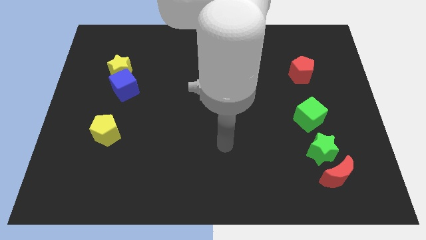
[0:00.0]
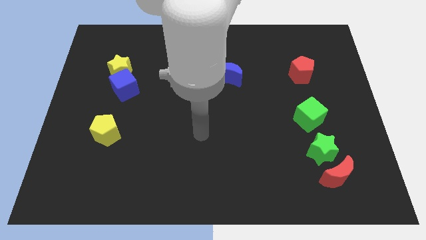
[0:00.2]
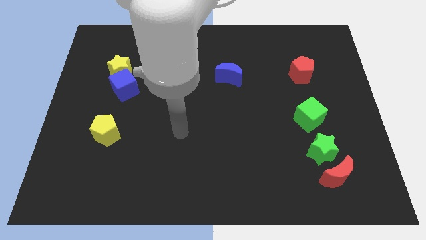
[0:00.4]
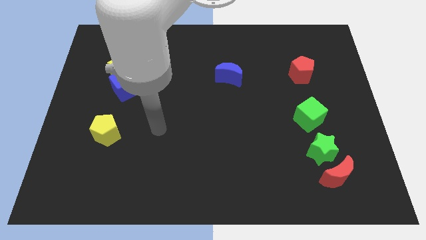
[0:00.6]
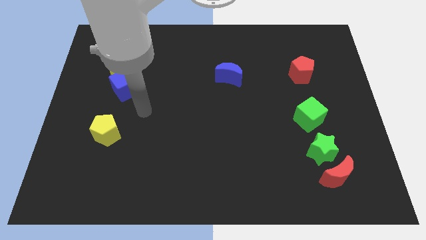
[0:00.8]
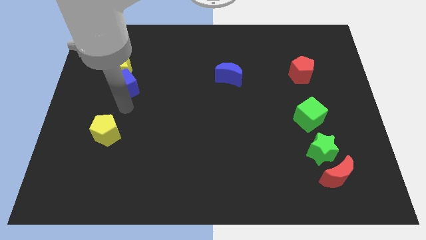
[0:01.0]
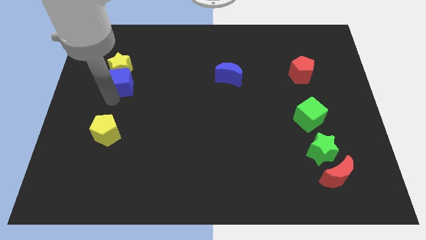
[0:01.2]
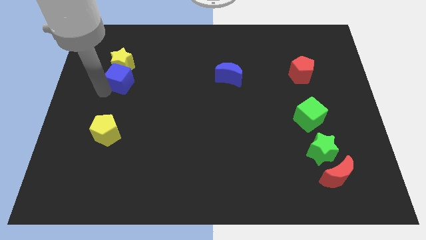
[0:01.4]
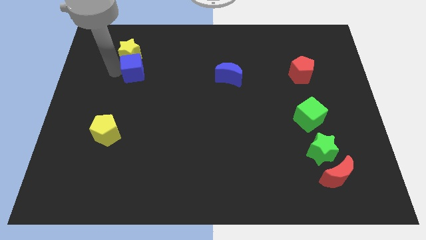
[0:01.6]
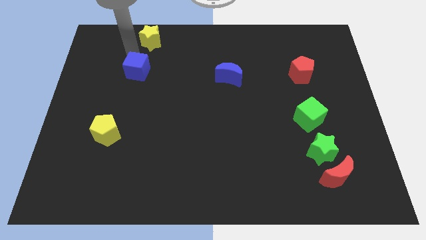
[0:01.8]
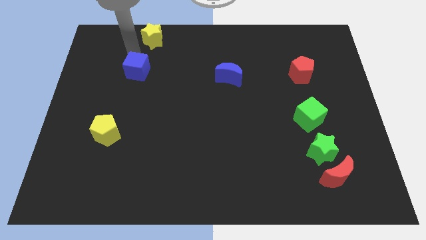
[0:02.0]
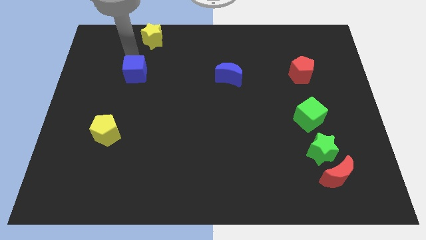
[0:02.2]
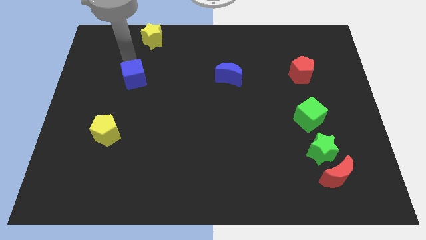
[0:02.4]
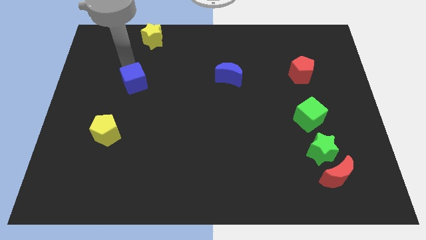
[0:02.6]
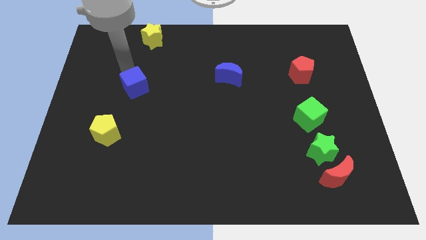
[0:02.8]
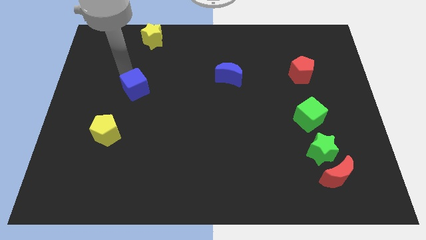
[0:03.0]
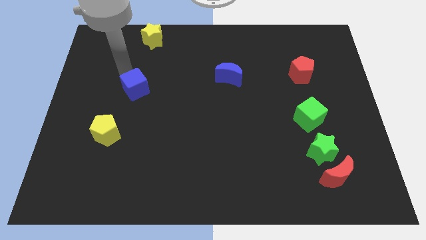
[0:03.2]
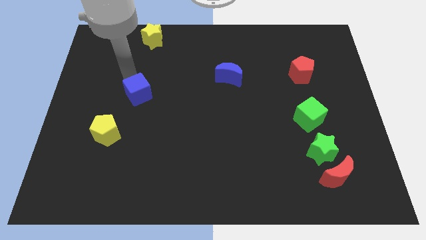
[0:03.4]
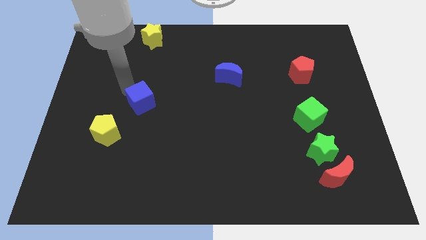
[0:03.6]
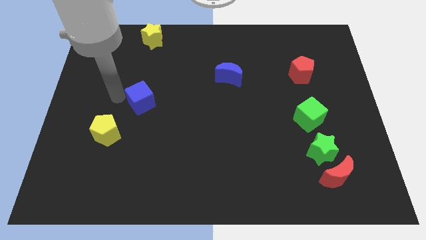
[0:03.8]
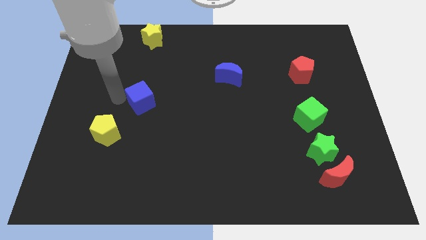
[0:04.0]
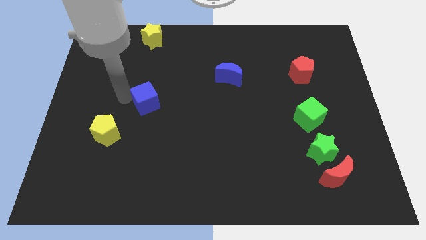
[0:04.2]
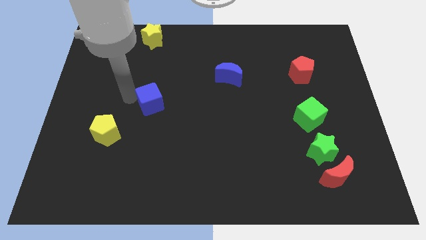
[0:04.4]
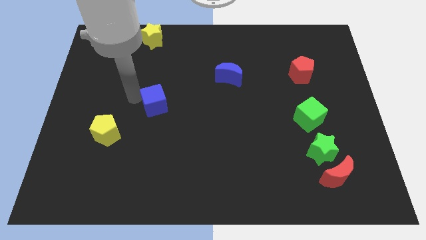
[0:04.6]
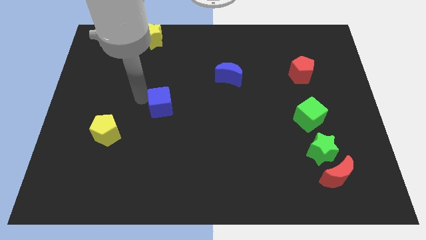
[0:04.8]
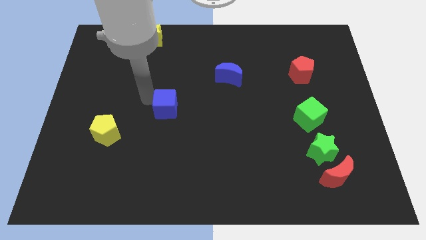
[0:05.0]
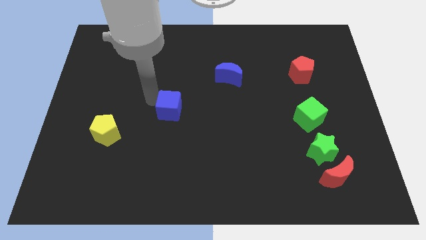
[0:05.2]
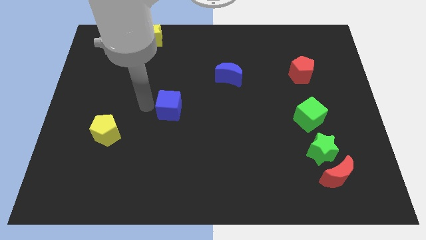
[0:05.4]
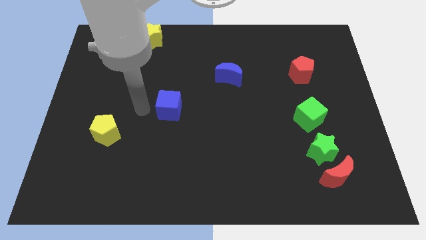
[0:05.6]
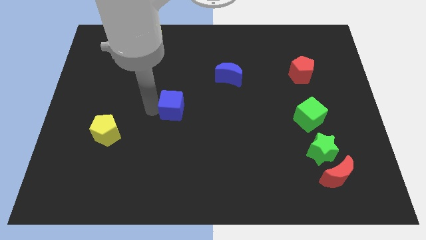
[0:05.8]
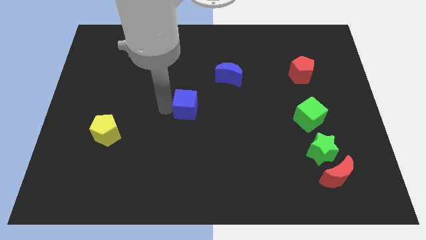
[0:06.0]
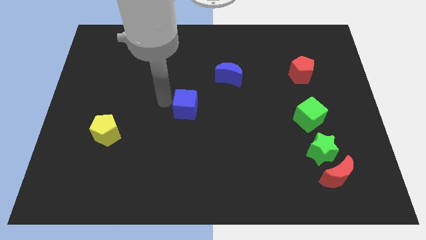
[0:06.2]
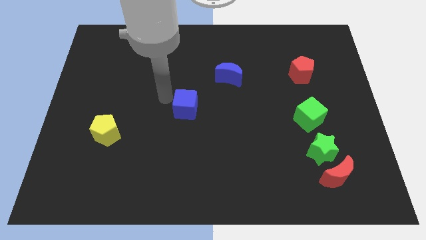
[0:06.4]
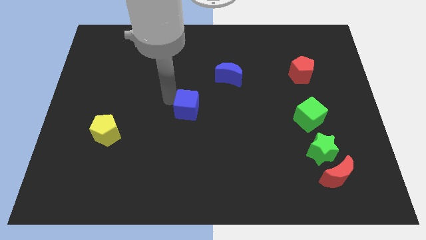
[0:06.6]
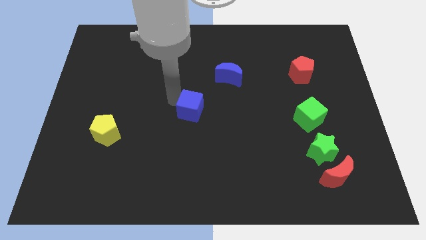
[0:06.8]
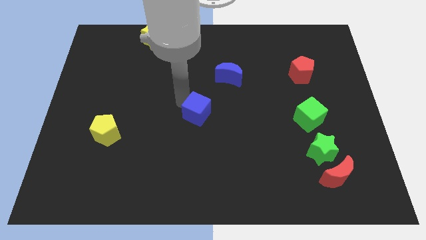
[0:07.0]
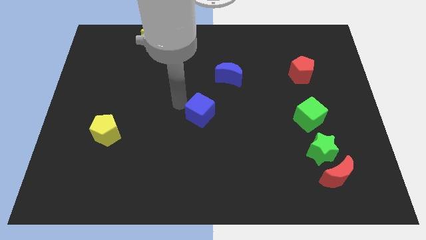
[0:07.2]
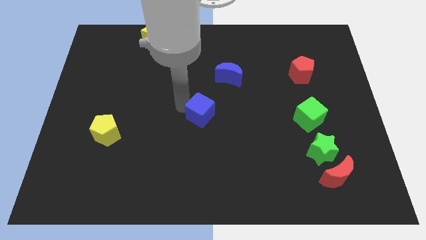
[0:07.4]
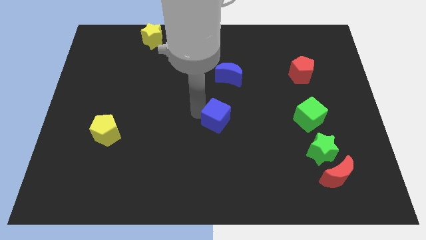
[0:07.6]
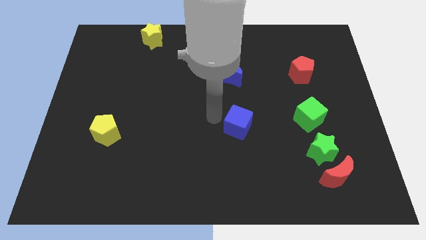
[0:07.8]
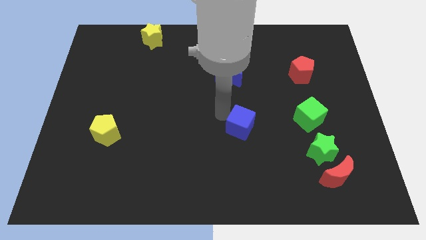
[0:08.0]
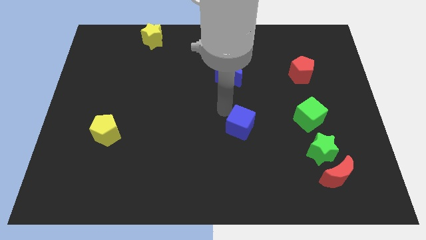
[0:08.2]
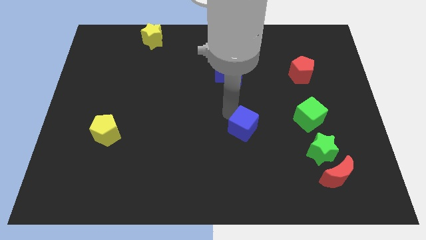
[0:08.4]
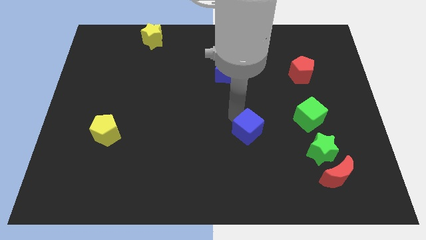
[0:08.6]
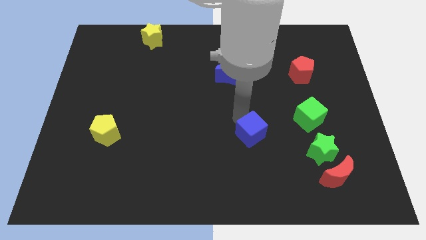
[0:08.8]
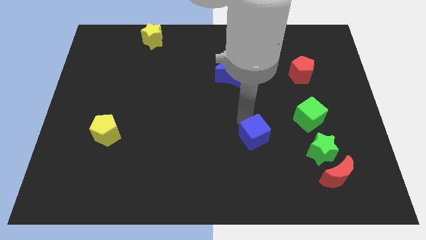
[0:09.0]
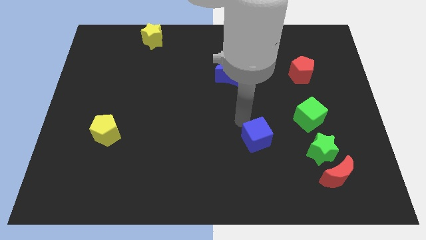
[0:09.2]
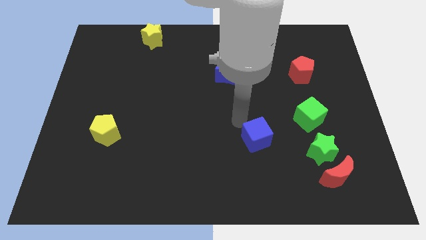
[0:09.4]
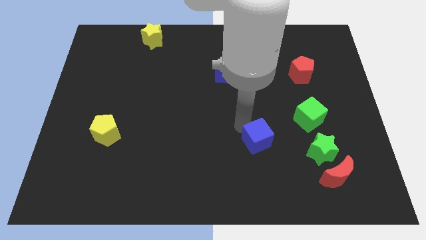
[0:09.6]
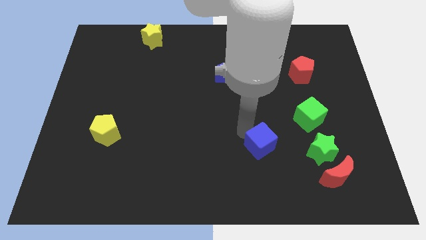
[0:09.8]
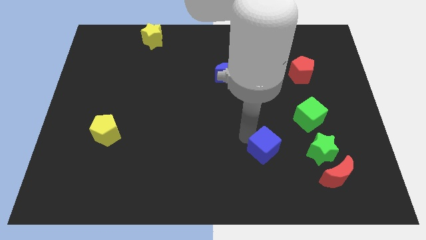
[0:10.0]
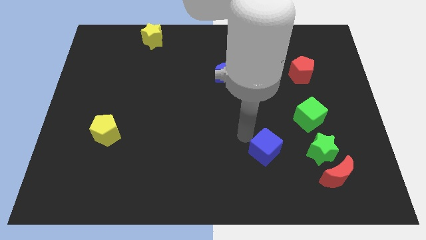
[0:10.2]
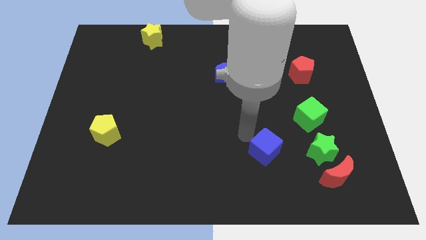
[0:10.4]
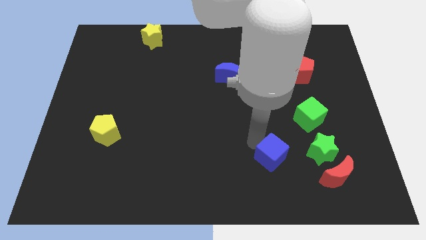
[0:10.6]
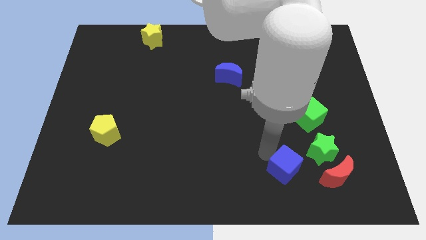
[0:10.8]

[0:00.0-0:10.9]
slide the blue cube to the bottom left of the green star

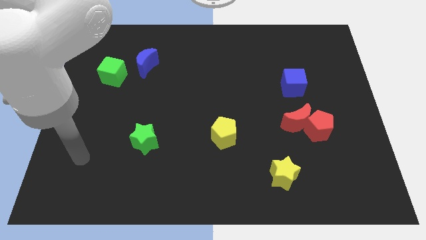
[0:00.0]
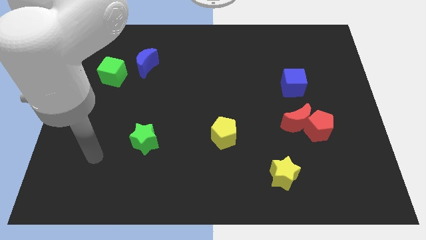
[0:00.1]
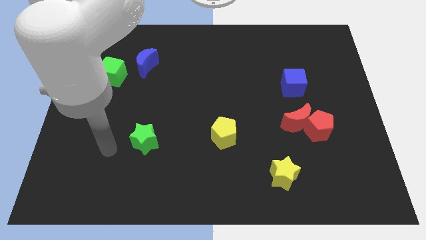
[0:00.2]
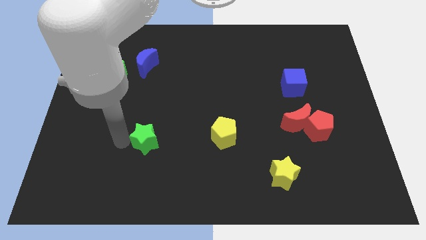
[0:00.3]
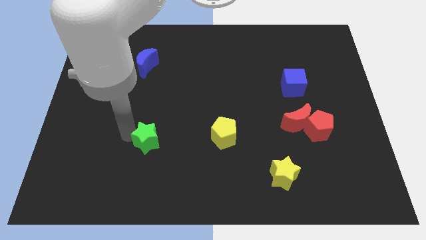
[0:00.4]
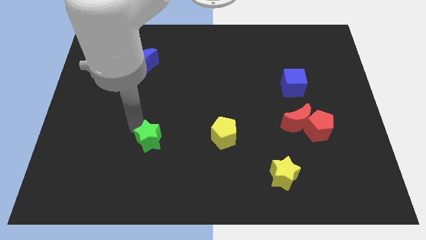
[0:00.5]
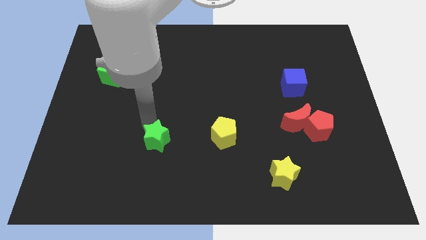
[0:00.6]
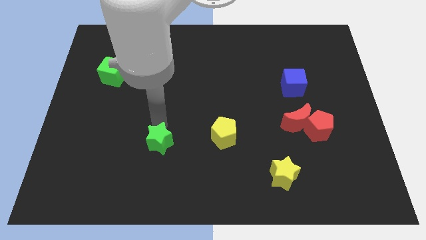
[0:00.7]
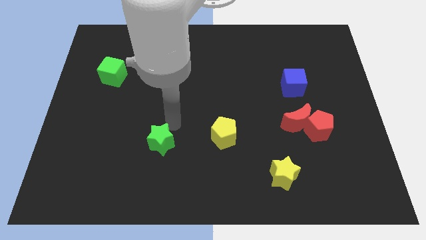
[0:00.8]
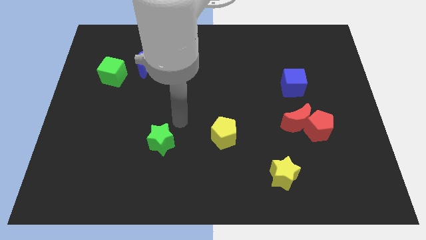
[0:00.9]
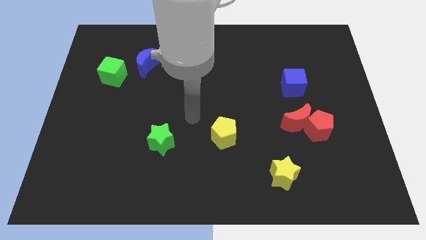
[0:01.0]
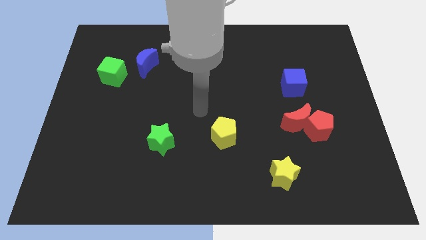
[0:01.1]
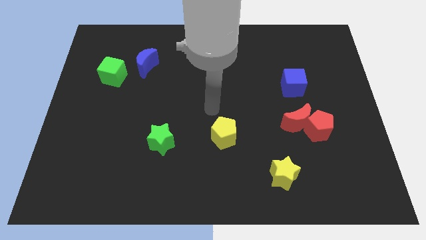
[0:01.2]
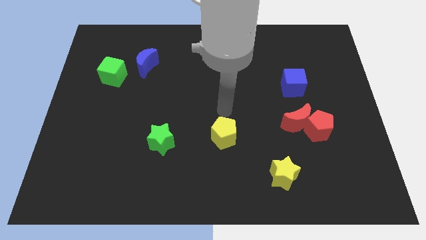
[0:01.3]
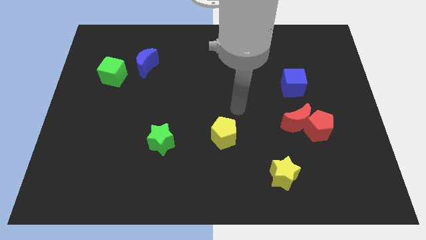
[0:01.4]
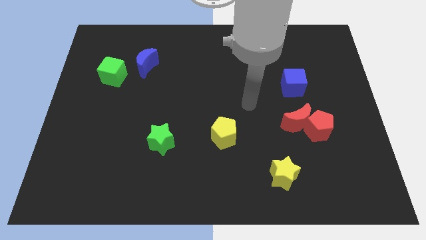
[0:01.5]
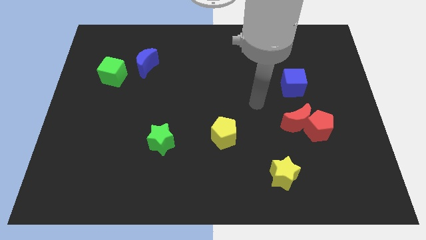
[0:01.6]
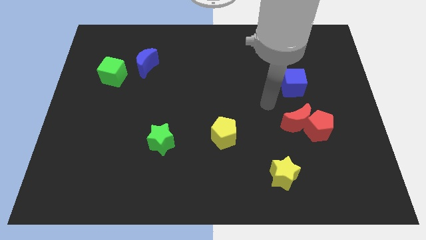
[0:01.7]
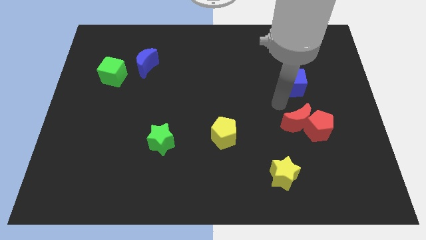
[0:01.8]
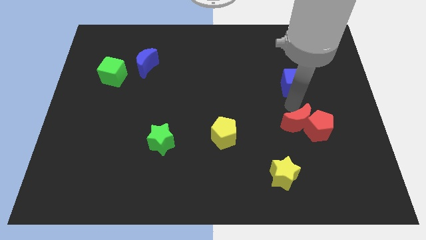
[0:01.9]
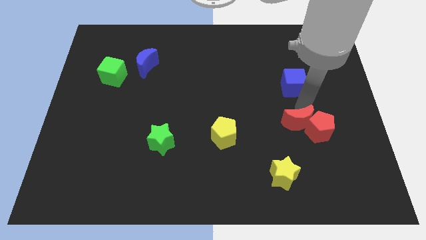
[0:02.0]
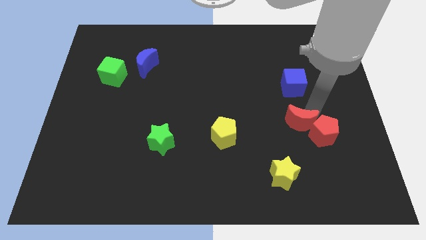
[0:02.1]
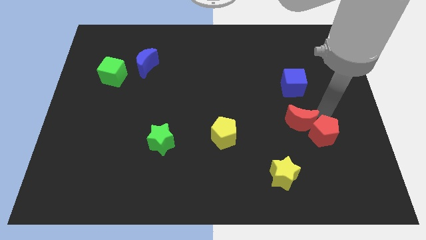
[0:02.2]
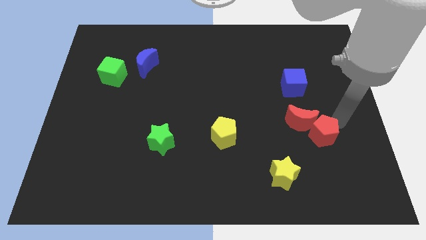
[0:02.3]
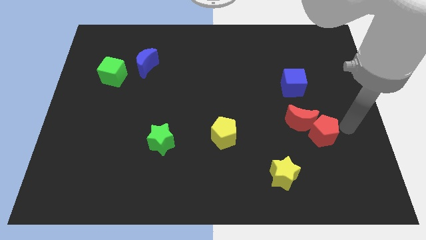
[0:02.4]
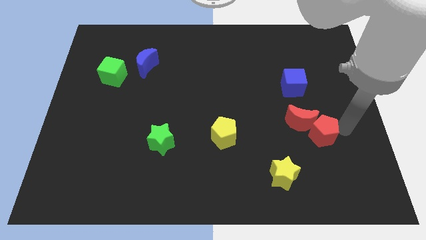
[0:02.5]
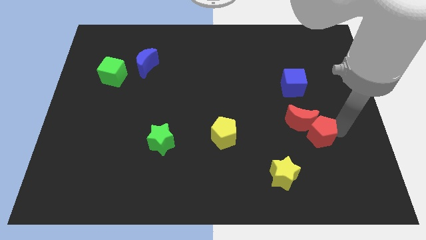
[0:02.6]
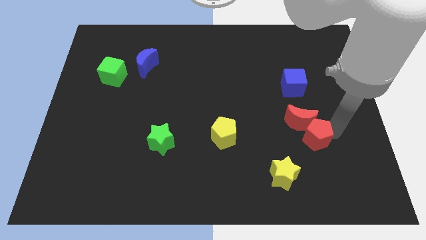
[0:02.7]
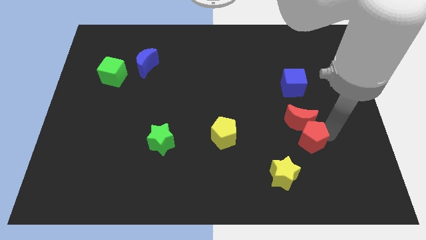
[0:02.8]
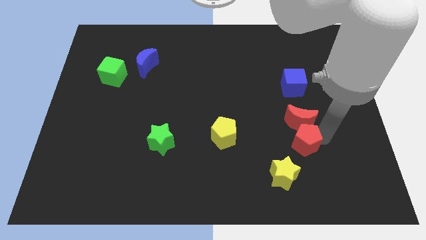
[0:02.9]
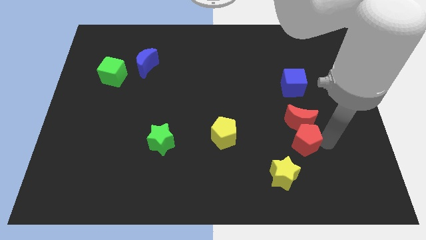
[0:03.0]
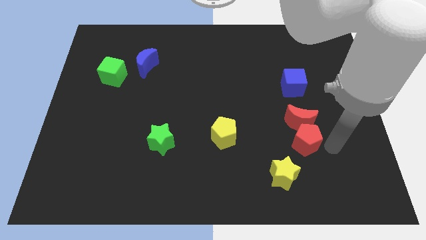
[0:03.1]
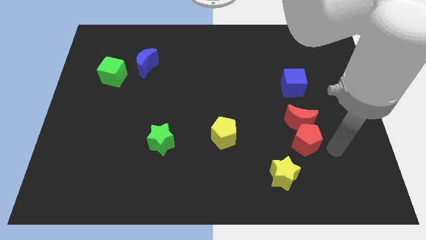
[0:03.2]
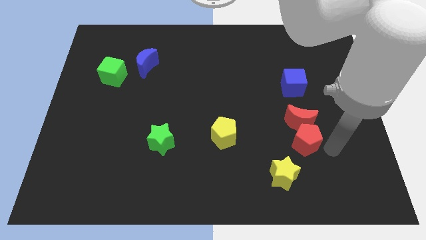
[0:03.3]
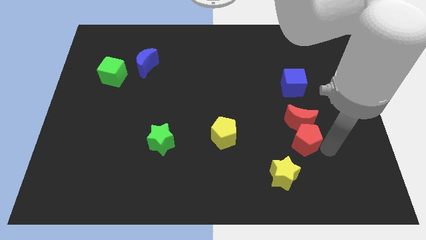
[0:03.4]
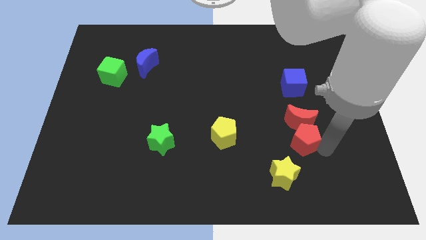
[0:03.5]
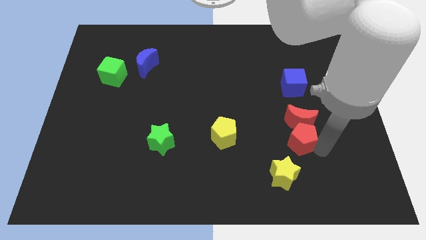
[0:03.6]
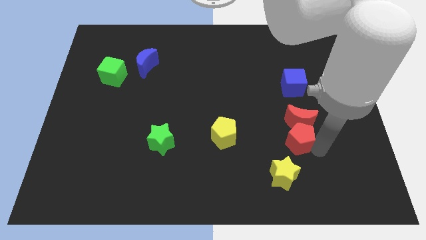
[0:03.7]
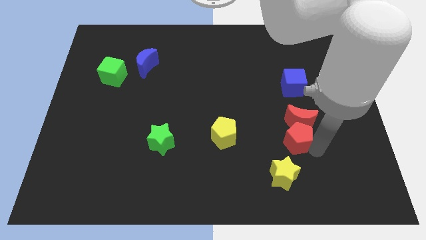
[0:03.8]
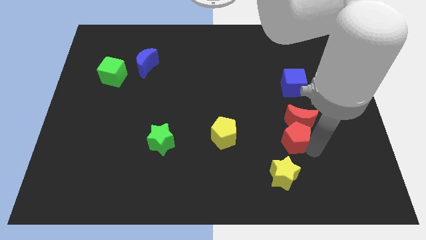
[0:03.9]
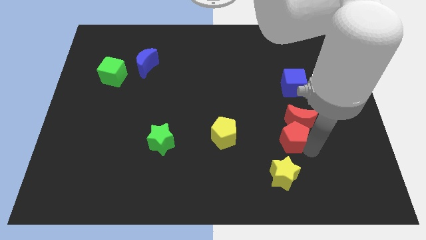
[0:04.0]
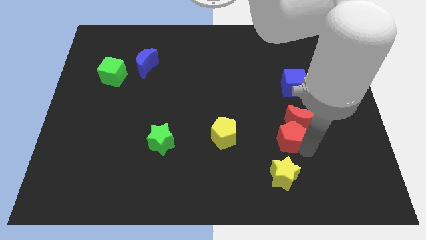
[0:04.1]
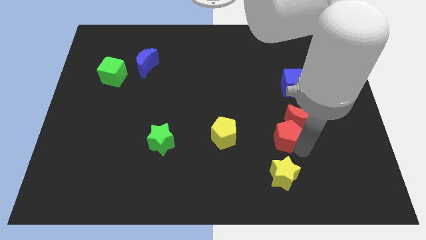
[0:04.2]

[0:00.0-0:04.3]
put the red pentagon to the left side of the red moon
